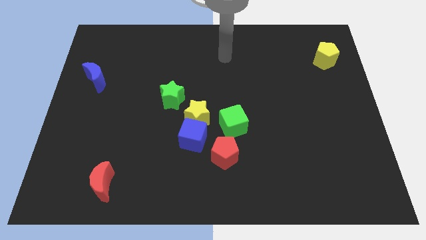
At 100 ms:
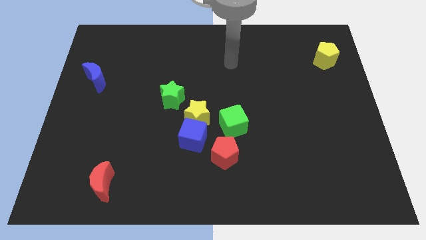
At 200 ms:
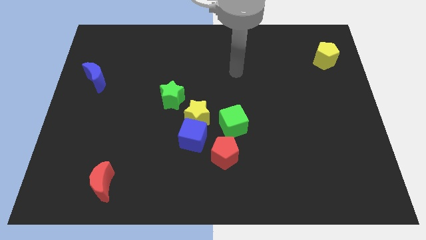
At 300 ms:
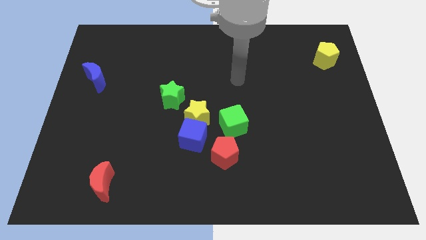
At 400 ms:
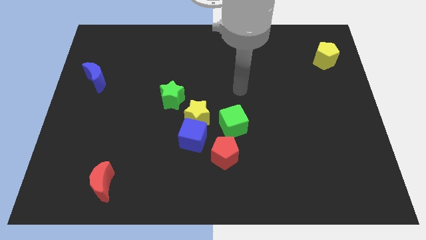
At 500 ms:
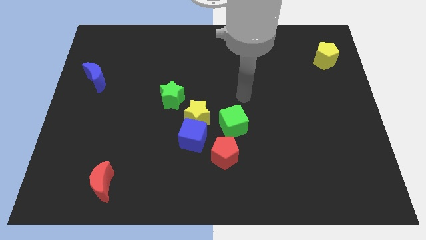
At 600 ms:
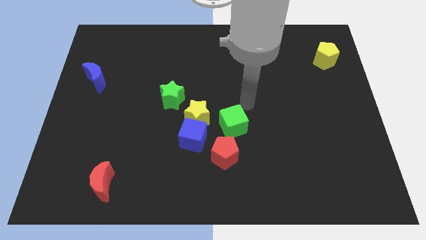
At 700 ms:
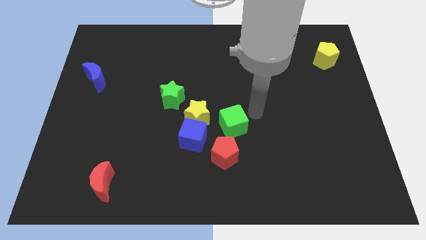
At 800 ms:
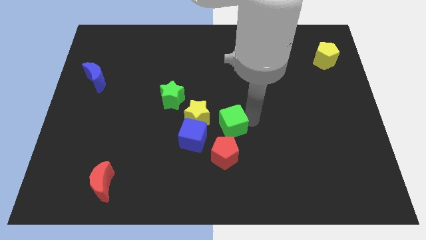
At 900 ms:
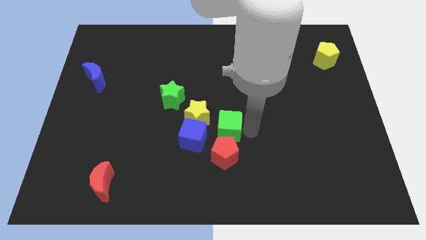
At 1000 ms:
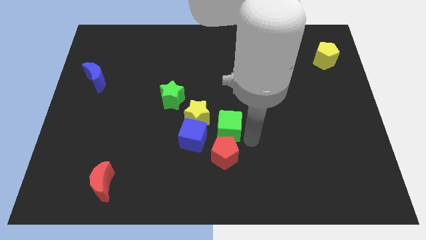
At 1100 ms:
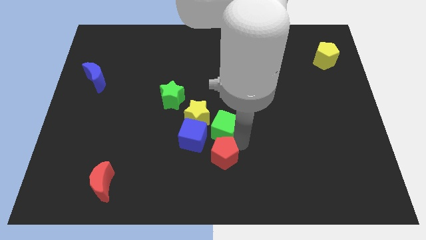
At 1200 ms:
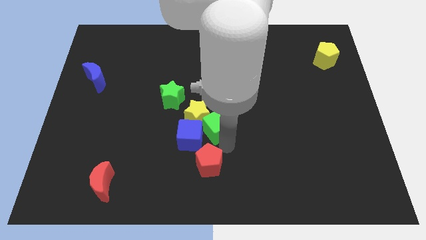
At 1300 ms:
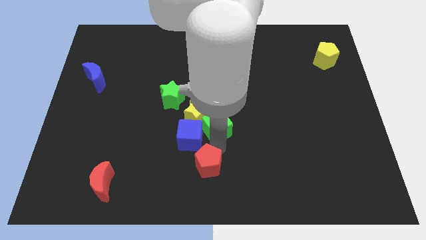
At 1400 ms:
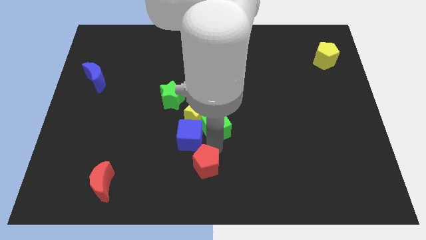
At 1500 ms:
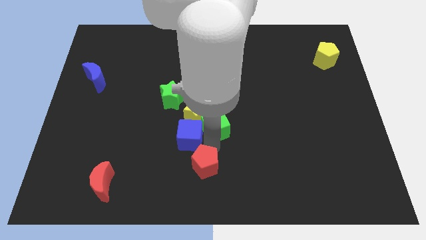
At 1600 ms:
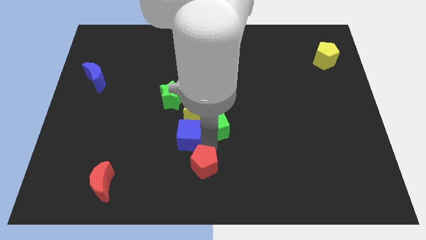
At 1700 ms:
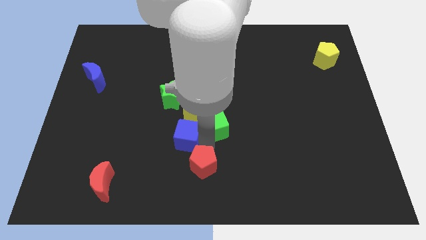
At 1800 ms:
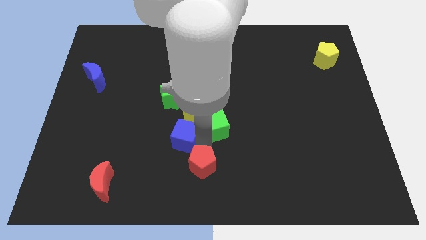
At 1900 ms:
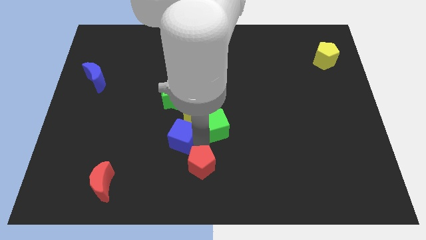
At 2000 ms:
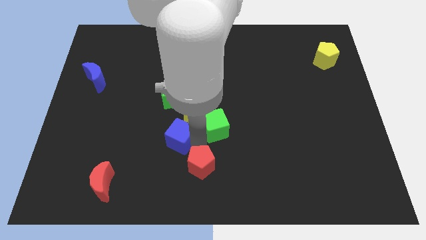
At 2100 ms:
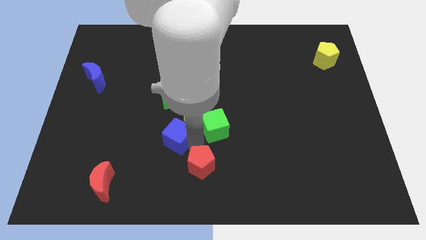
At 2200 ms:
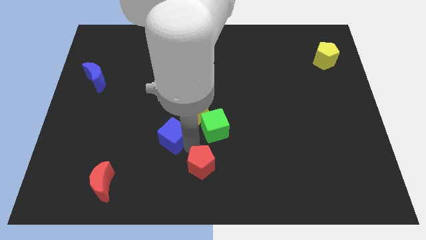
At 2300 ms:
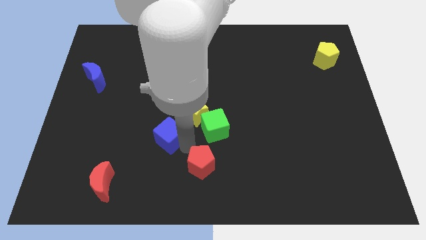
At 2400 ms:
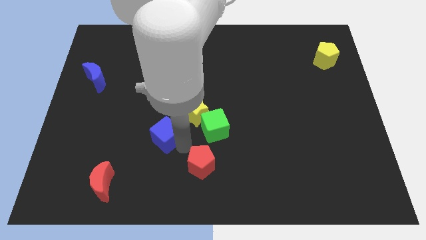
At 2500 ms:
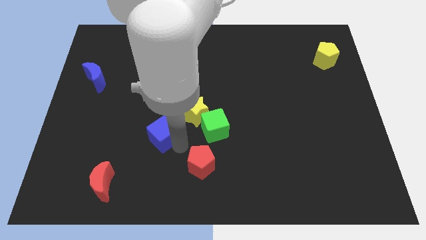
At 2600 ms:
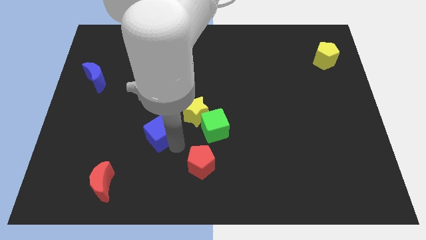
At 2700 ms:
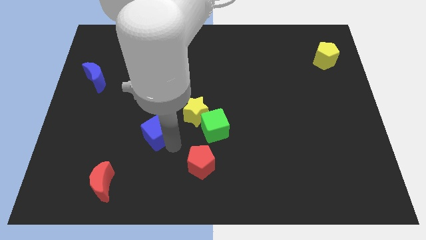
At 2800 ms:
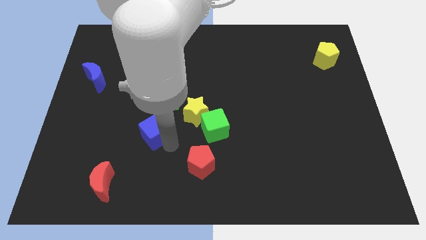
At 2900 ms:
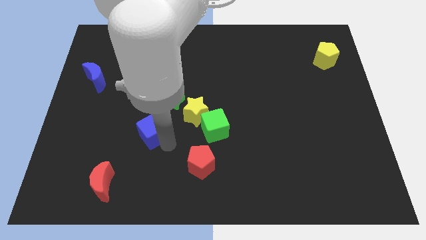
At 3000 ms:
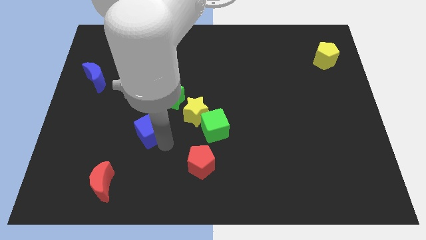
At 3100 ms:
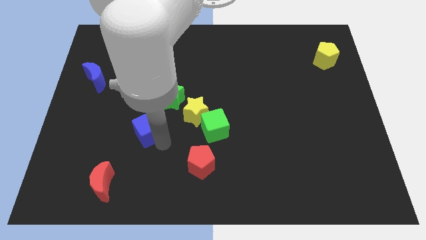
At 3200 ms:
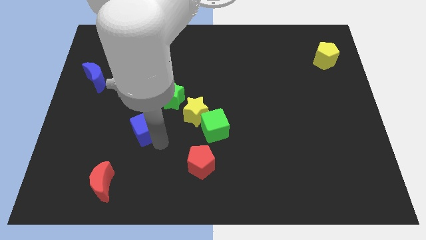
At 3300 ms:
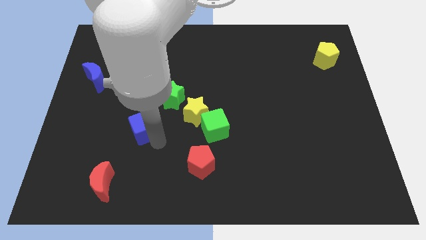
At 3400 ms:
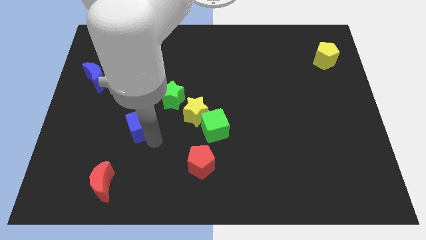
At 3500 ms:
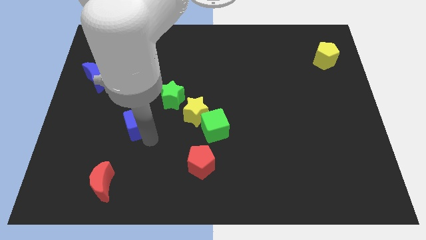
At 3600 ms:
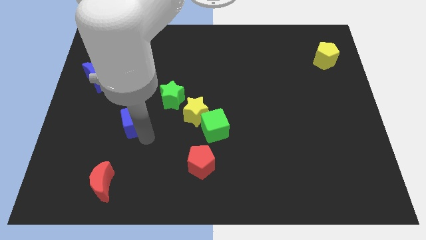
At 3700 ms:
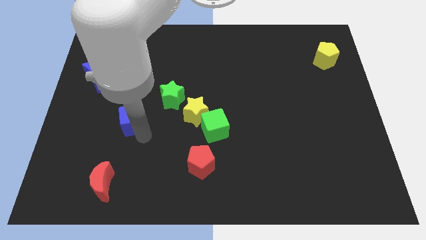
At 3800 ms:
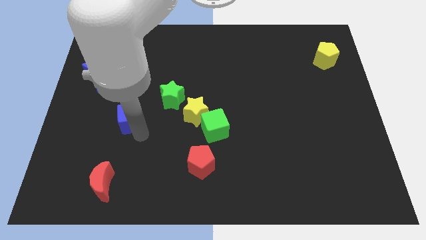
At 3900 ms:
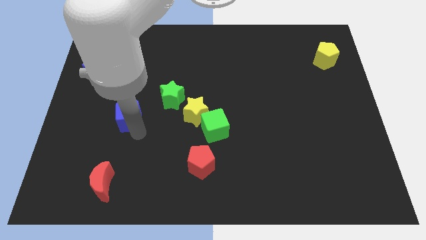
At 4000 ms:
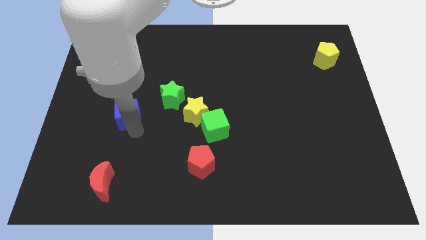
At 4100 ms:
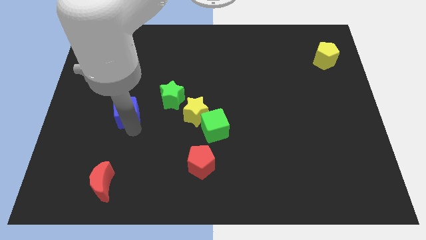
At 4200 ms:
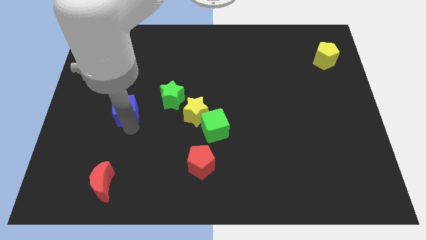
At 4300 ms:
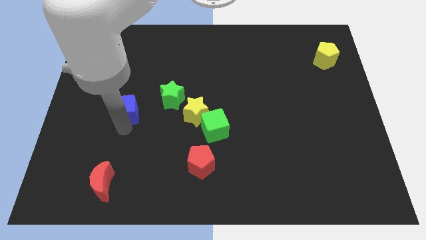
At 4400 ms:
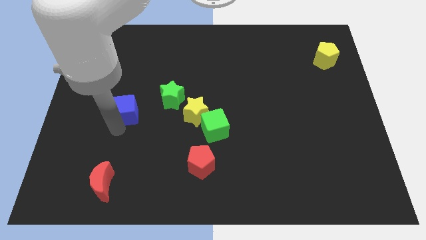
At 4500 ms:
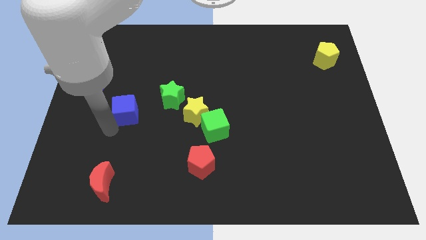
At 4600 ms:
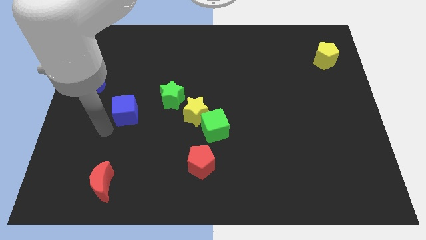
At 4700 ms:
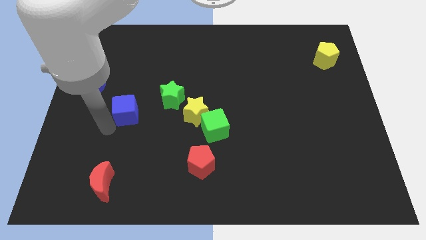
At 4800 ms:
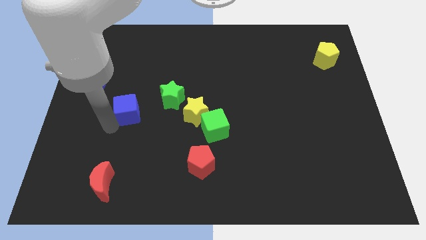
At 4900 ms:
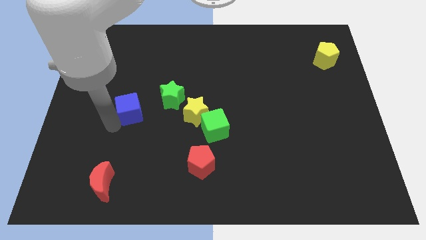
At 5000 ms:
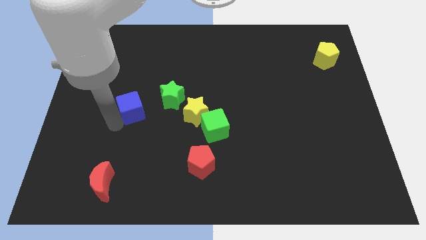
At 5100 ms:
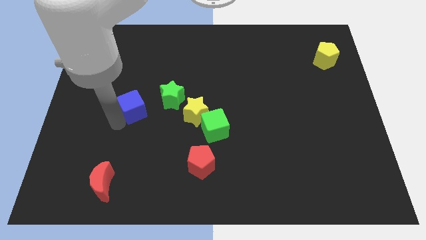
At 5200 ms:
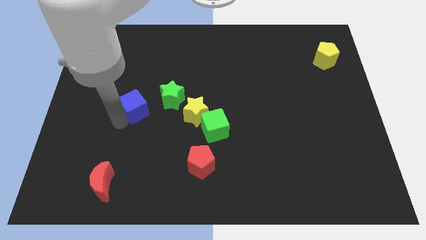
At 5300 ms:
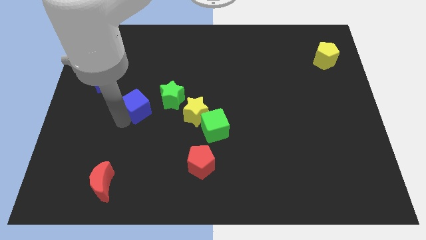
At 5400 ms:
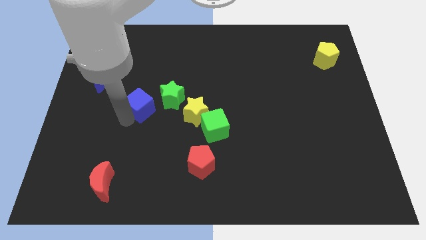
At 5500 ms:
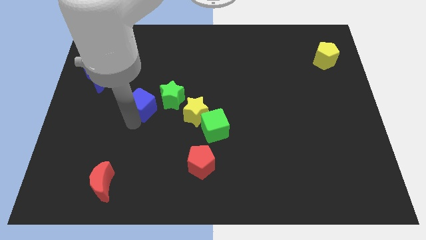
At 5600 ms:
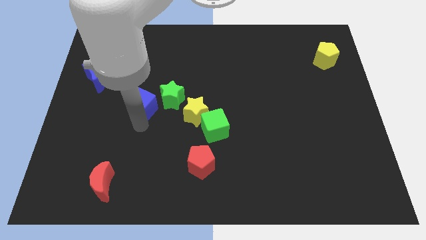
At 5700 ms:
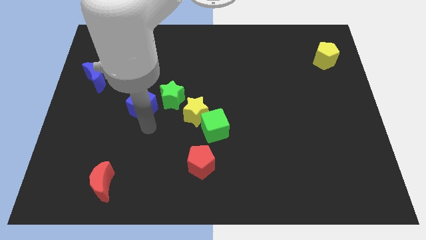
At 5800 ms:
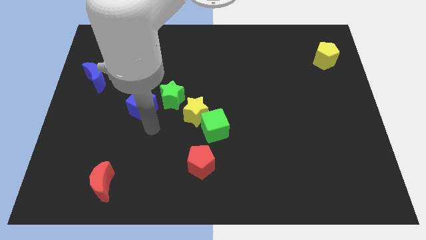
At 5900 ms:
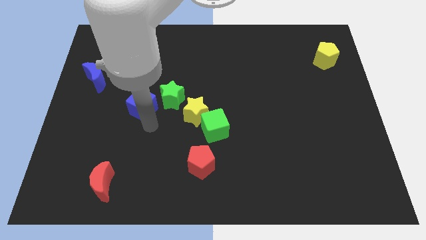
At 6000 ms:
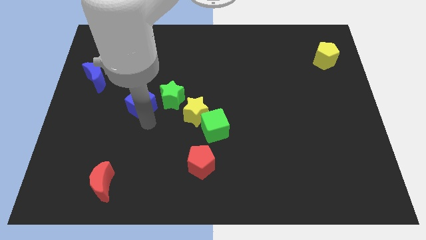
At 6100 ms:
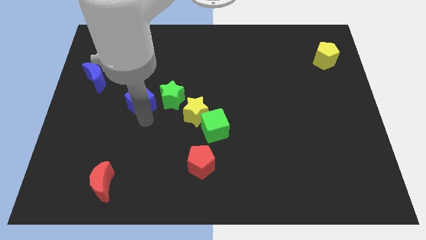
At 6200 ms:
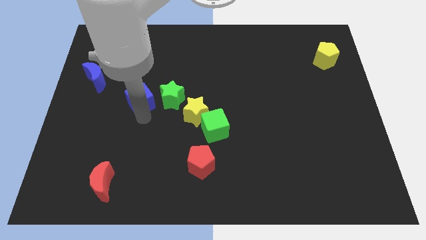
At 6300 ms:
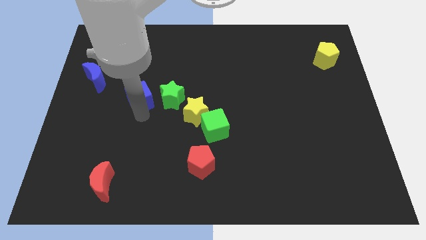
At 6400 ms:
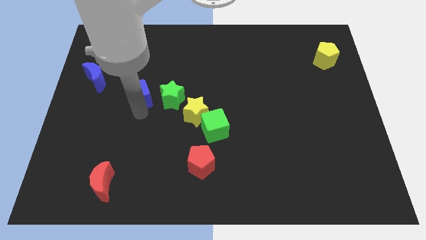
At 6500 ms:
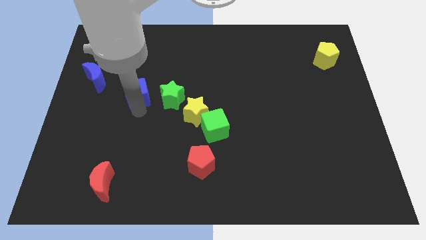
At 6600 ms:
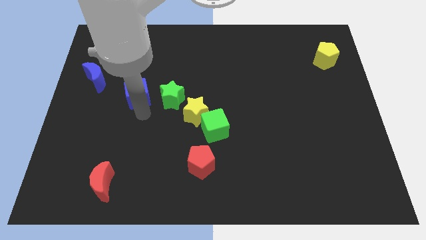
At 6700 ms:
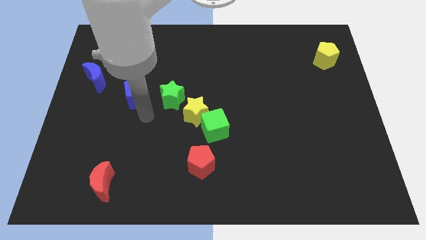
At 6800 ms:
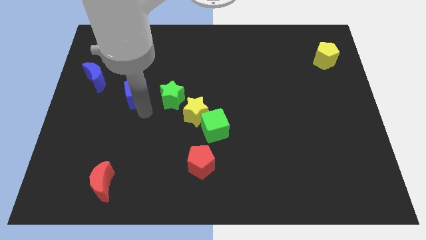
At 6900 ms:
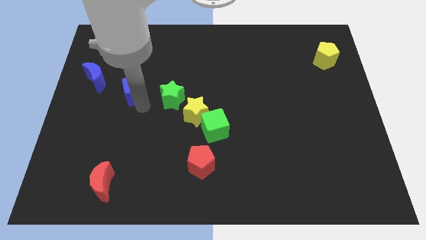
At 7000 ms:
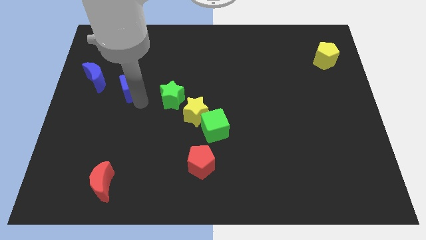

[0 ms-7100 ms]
push the blue cube up and left diagonally

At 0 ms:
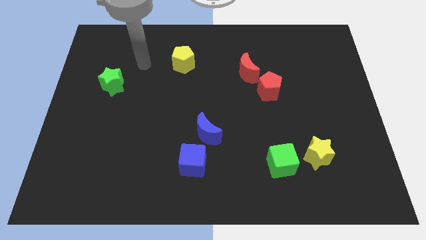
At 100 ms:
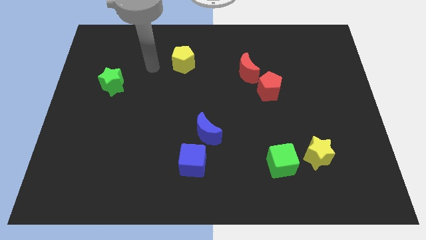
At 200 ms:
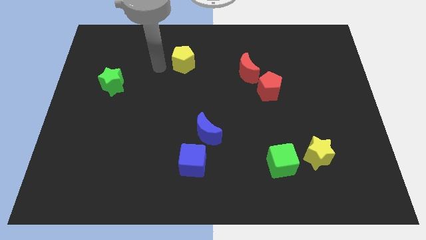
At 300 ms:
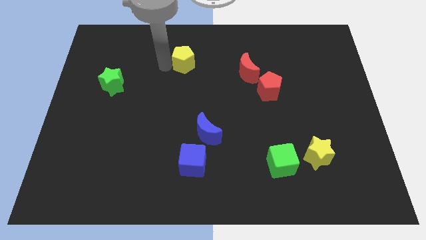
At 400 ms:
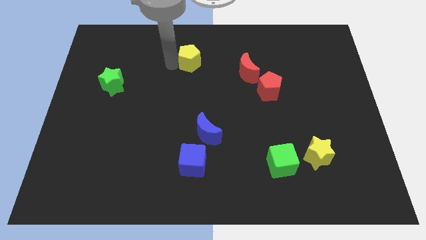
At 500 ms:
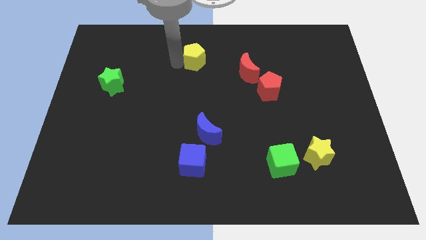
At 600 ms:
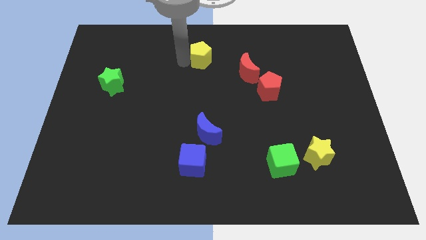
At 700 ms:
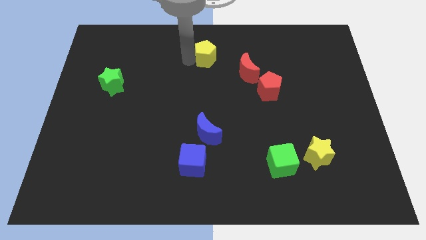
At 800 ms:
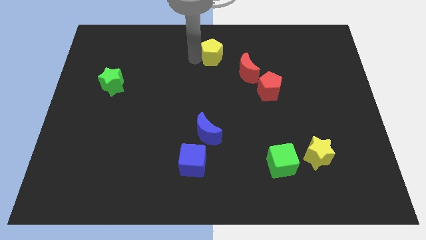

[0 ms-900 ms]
slightly move the yellow pentagon to the right

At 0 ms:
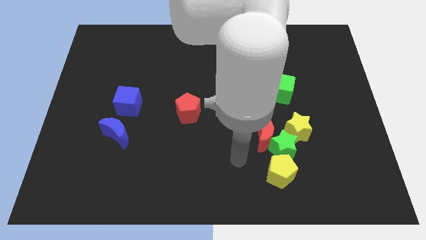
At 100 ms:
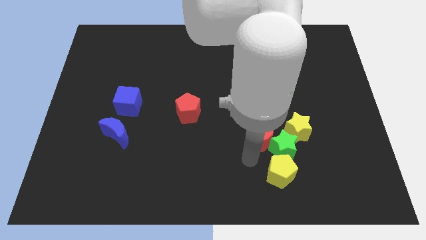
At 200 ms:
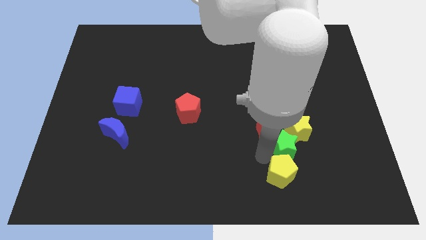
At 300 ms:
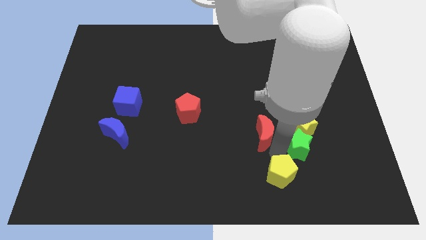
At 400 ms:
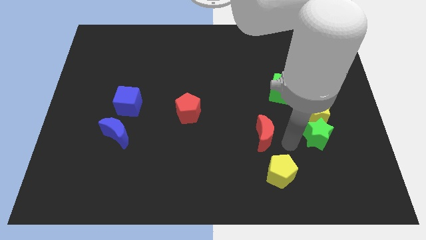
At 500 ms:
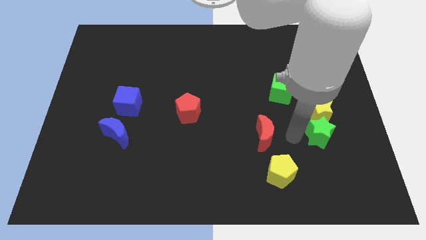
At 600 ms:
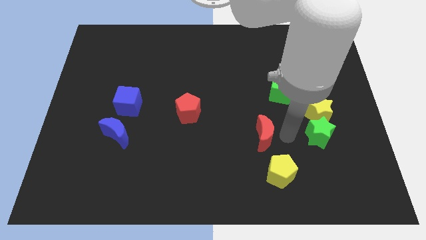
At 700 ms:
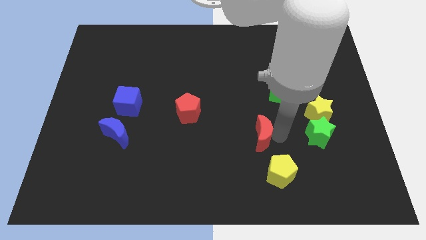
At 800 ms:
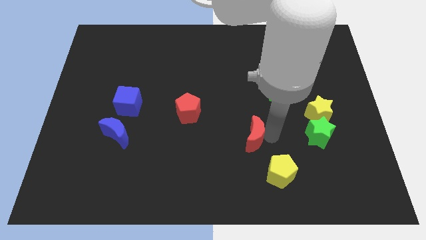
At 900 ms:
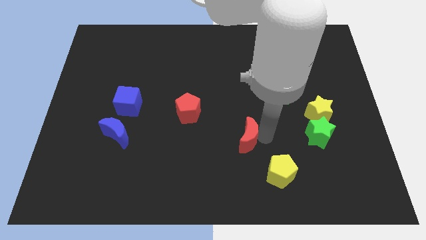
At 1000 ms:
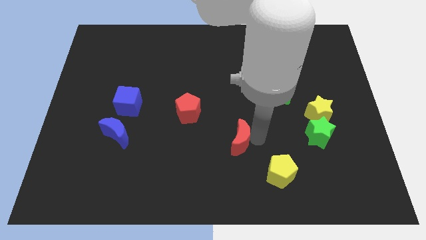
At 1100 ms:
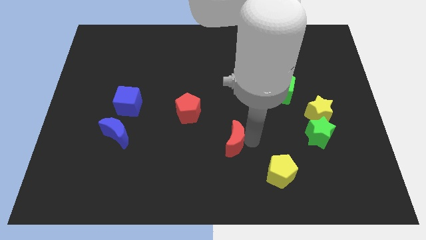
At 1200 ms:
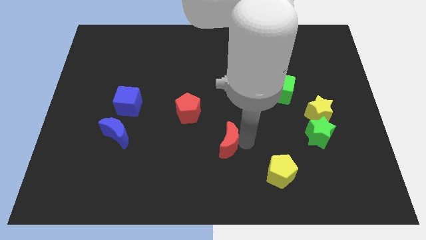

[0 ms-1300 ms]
push the red moon a little left
